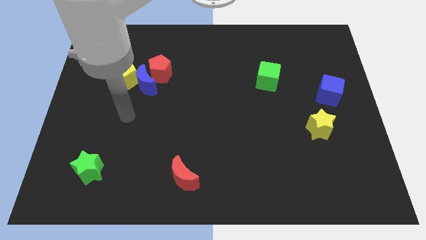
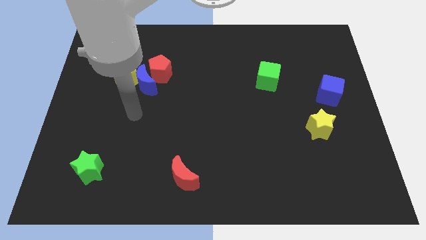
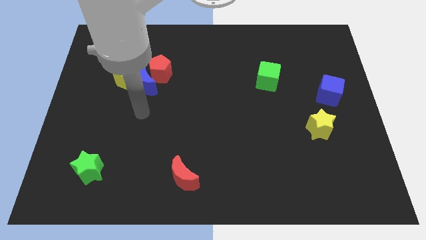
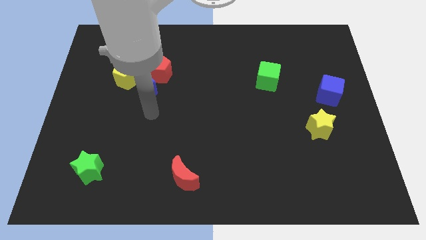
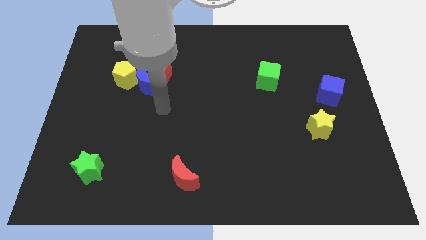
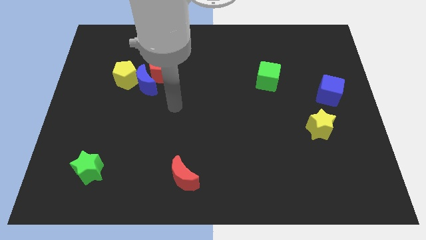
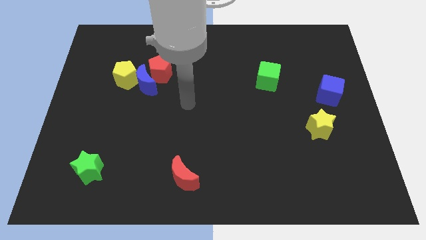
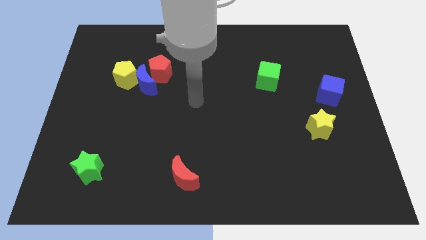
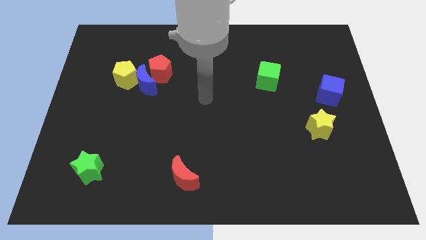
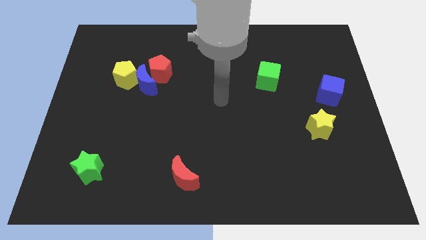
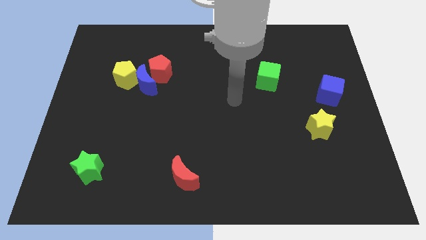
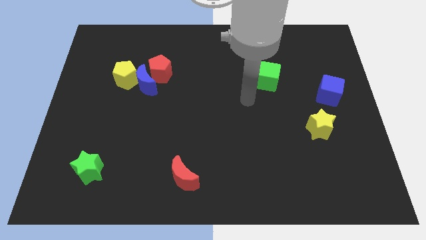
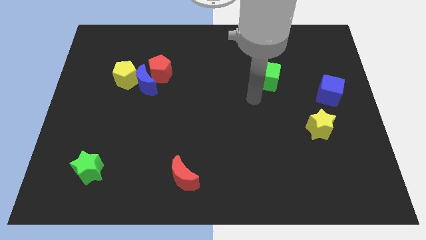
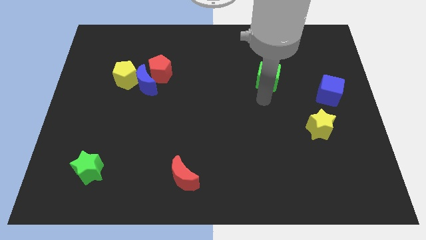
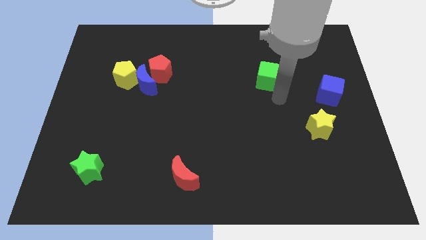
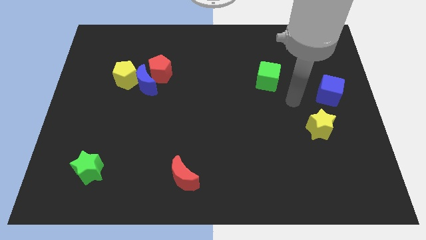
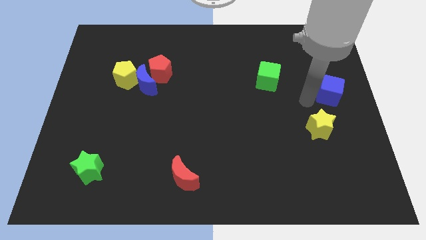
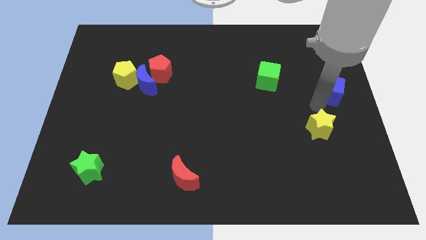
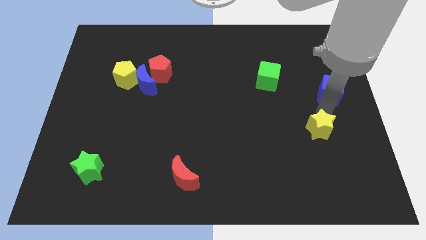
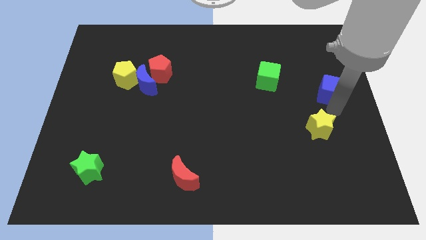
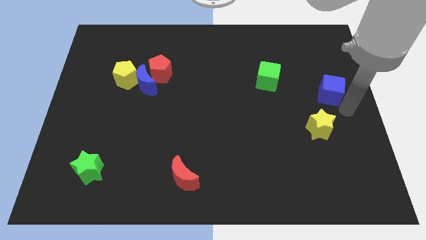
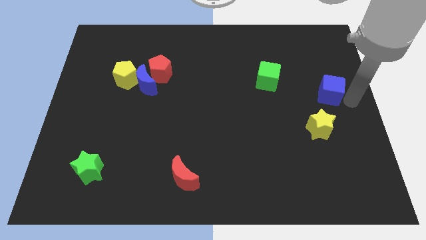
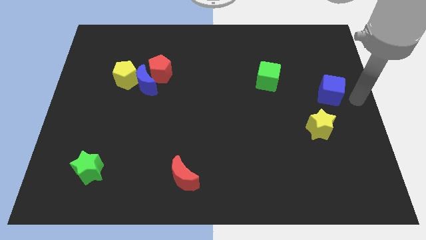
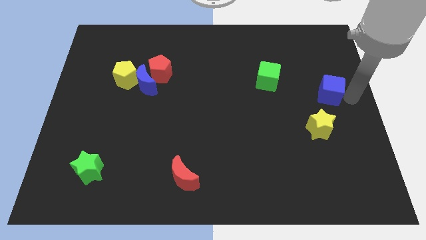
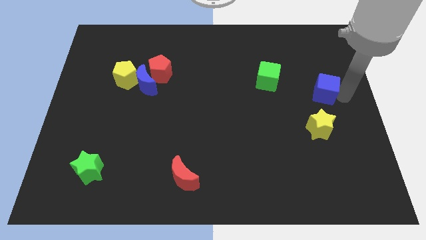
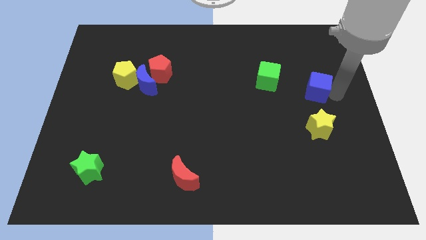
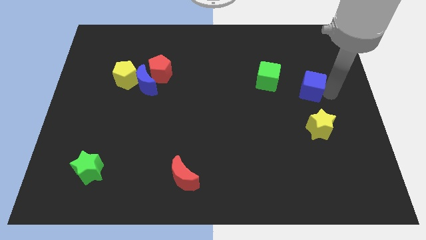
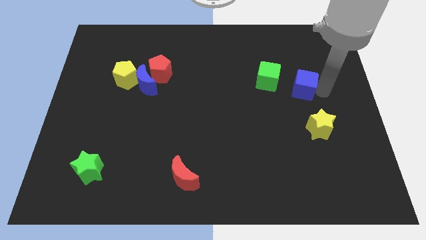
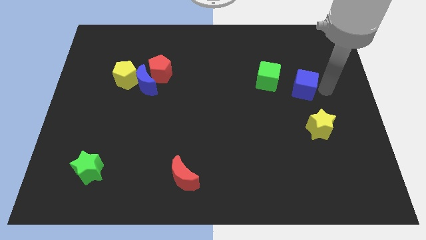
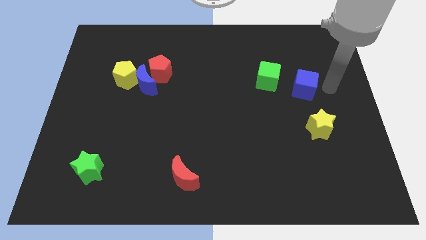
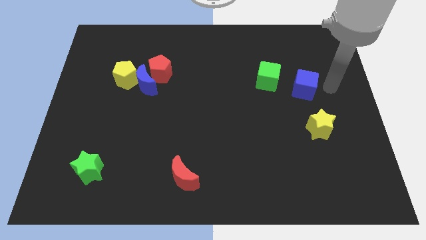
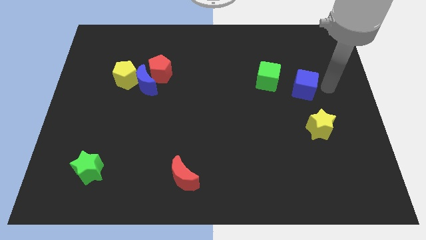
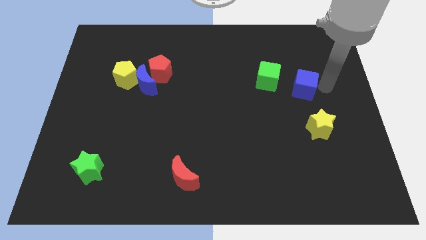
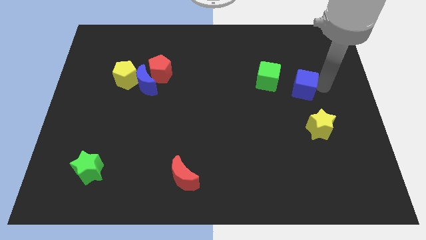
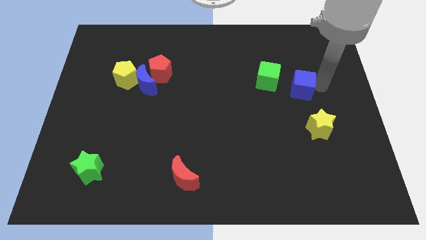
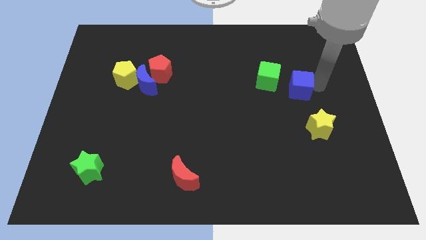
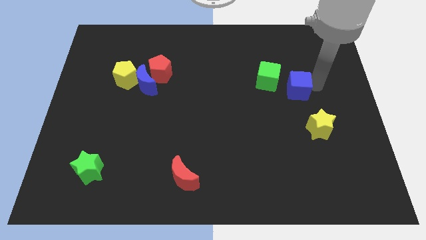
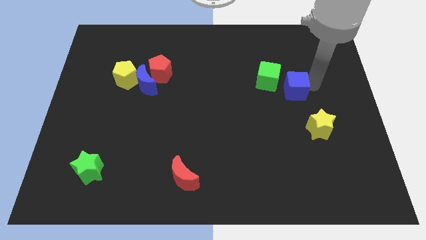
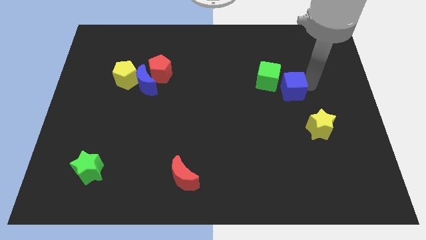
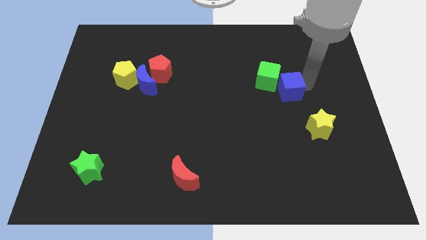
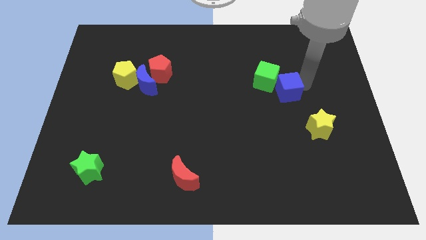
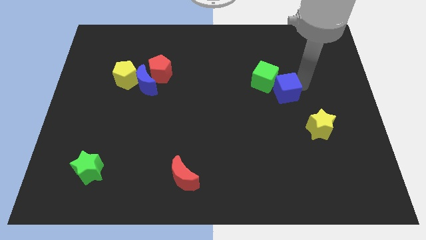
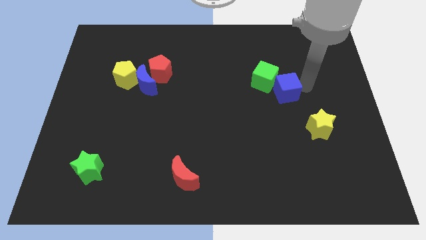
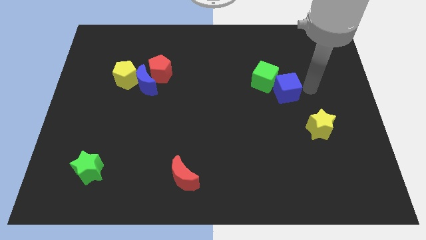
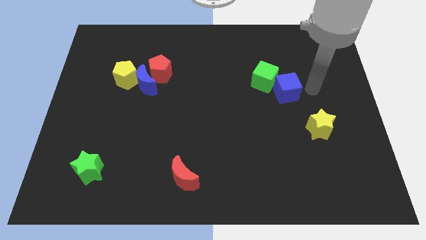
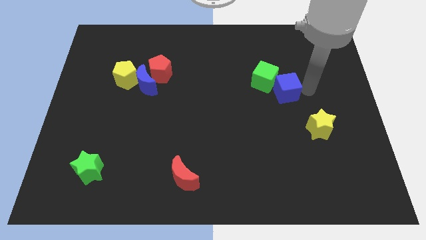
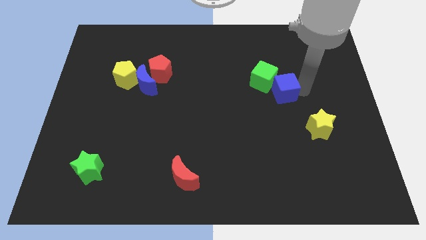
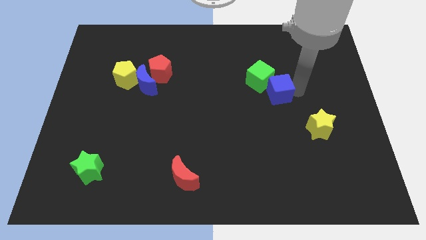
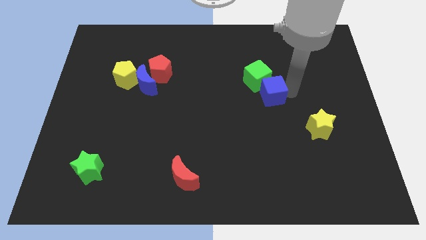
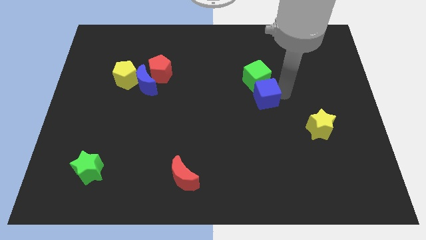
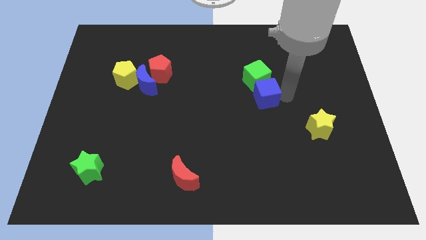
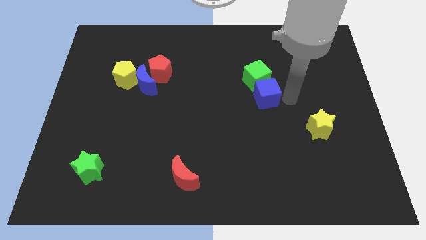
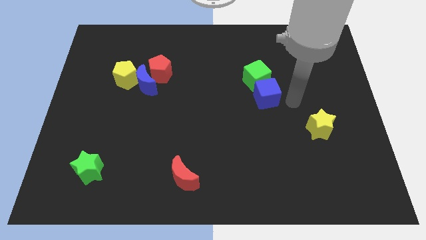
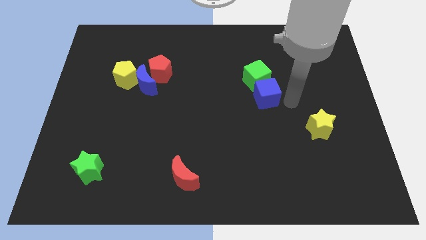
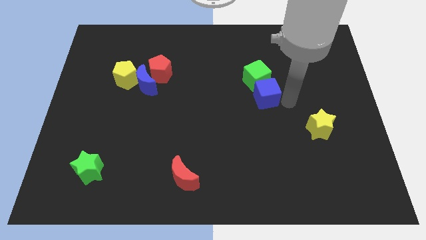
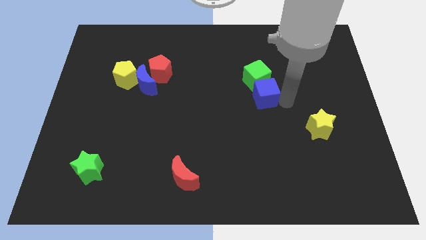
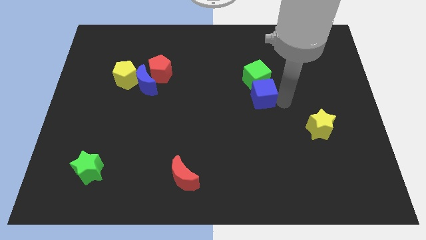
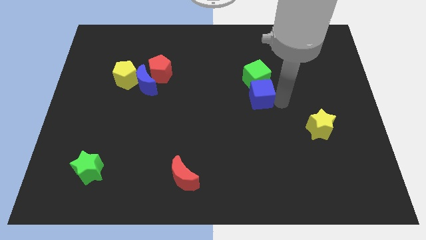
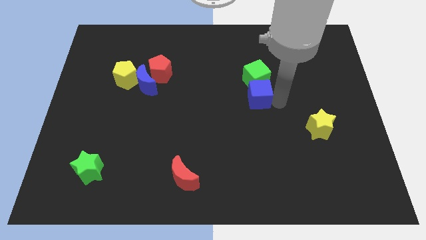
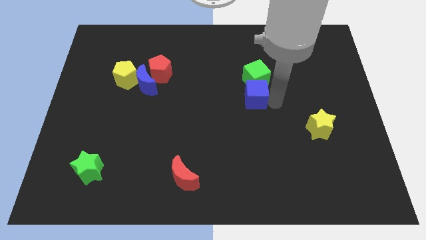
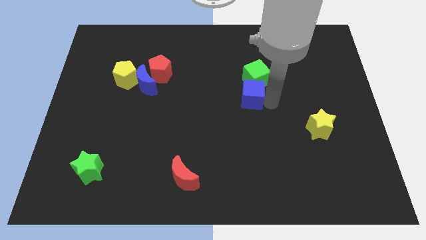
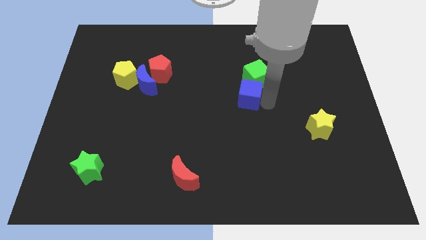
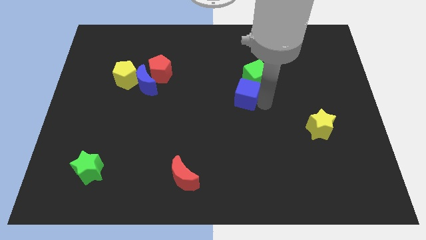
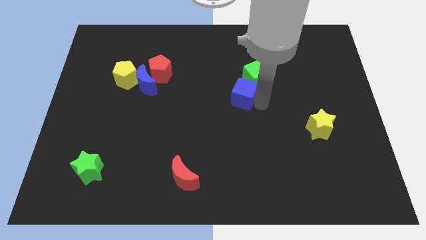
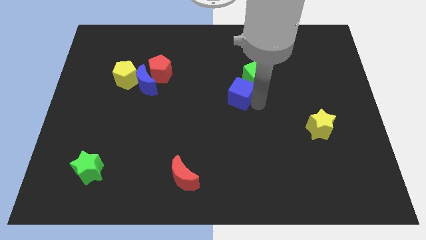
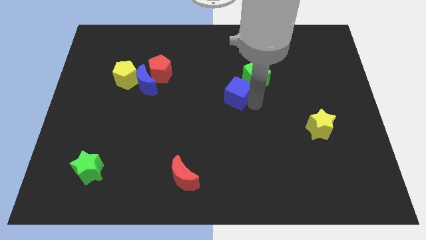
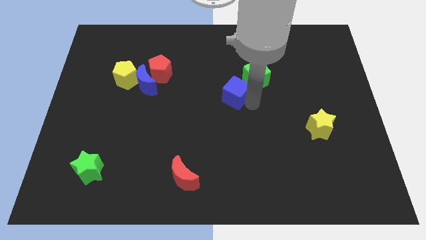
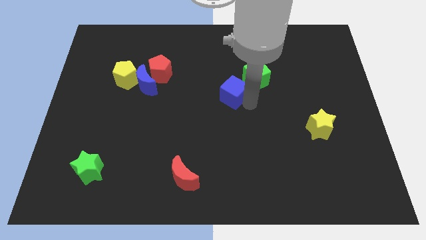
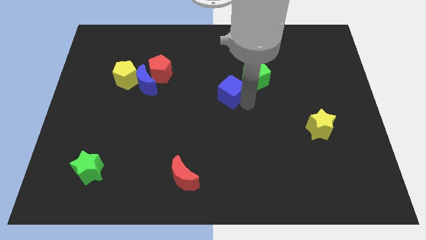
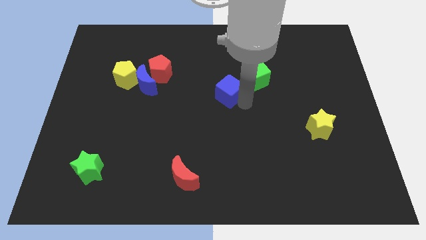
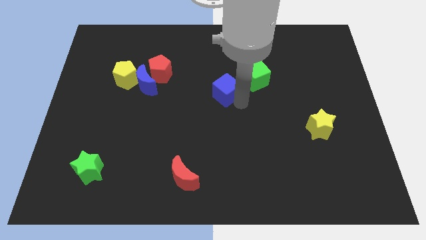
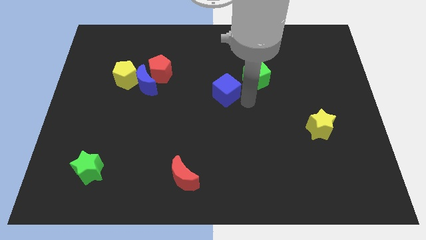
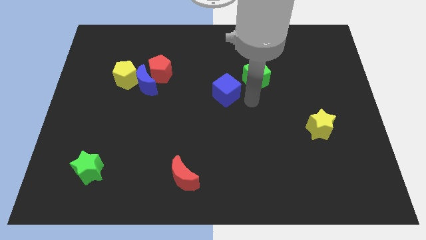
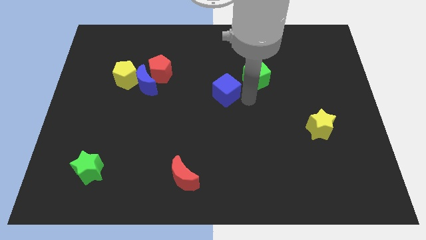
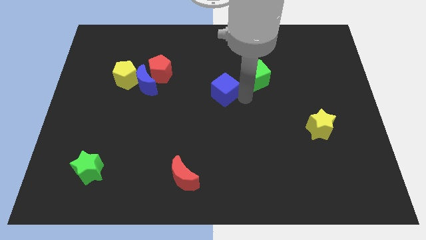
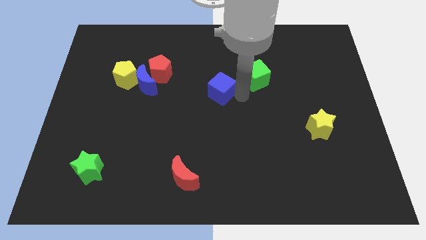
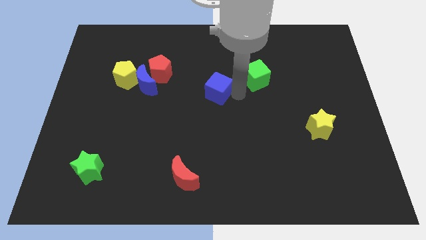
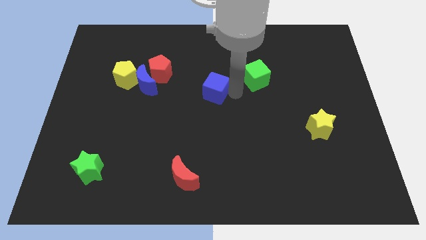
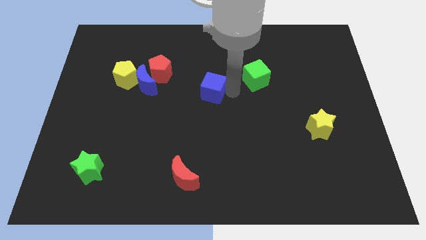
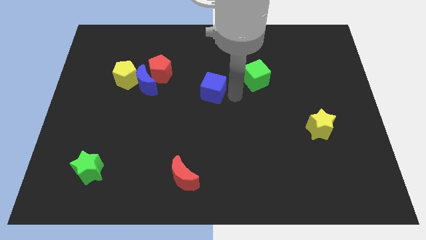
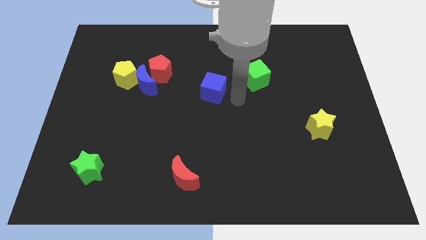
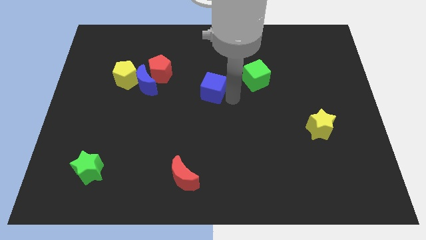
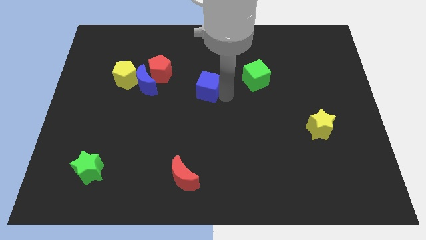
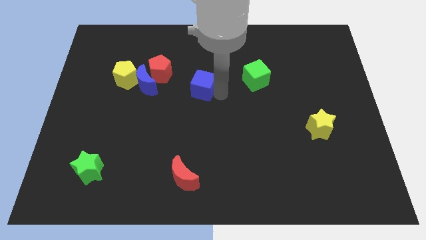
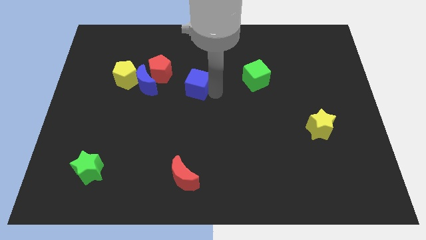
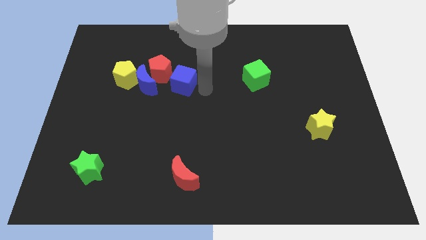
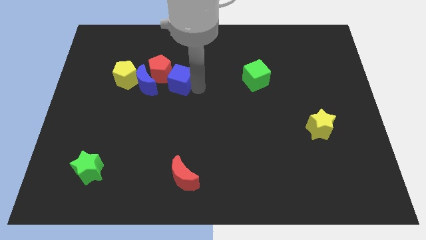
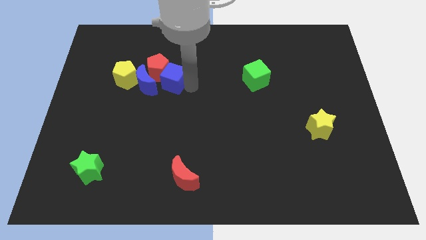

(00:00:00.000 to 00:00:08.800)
slide the blue cube next to the red pentagon
